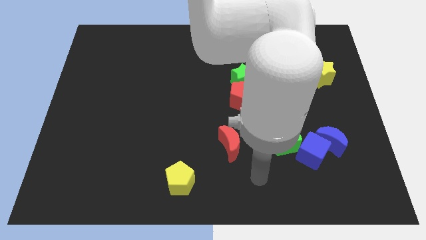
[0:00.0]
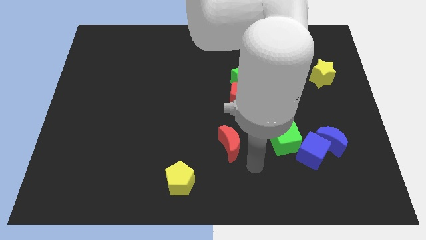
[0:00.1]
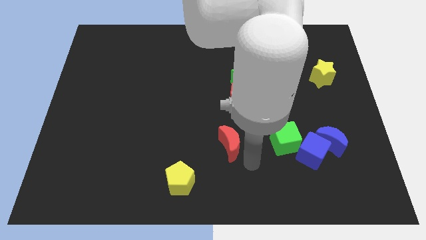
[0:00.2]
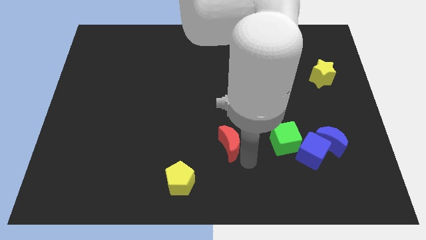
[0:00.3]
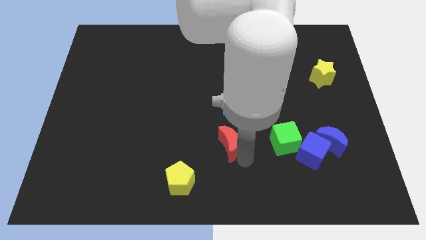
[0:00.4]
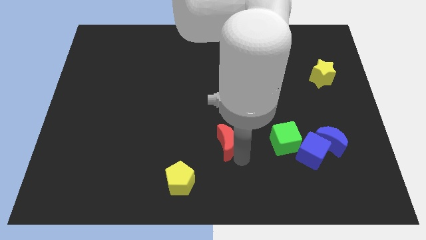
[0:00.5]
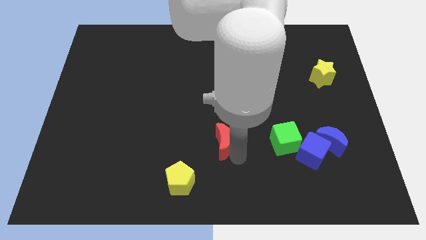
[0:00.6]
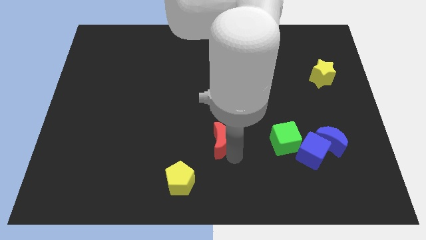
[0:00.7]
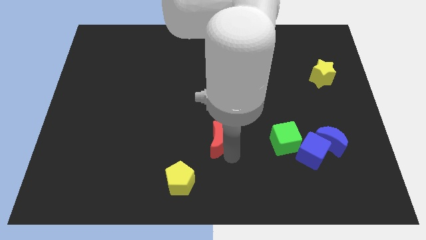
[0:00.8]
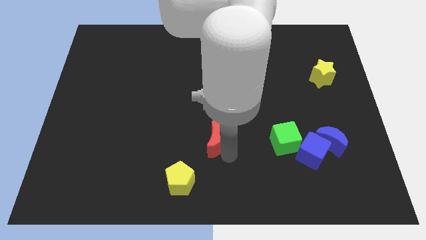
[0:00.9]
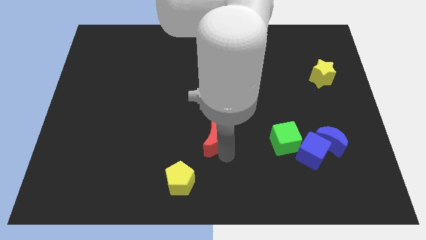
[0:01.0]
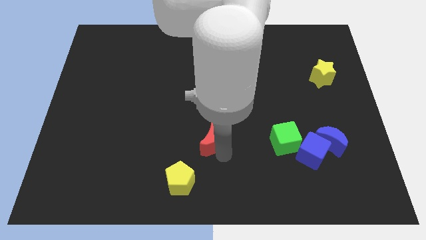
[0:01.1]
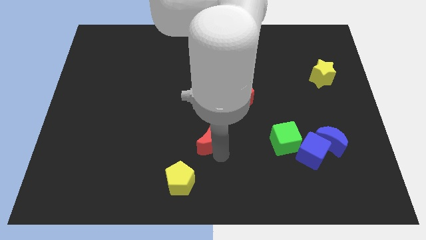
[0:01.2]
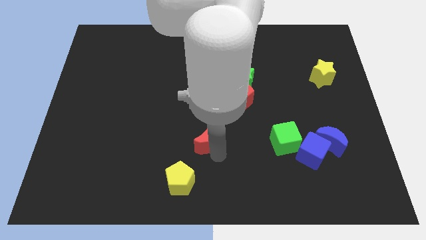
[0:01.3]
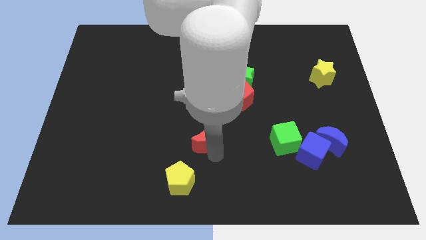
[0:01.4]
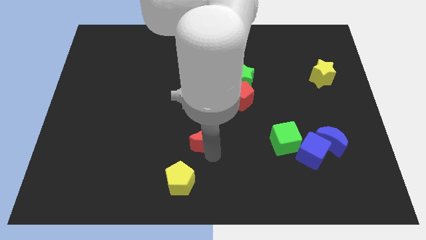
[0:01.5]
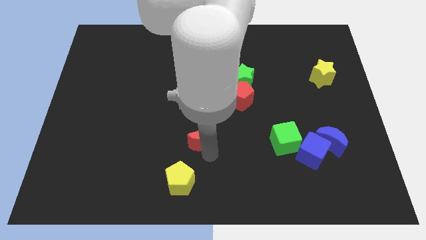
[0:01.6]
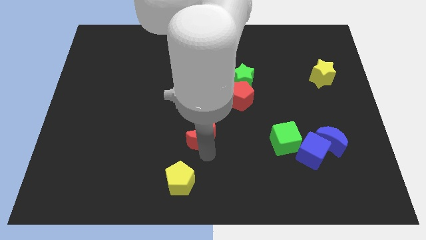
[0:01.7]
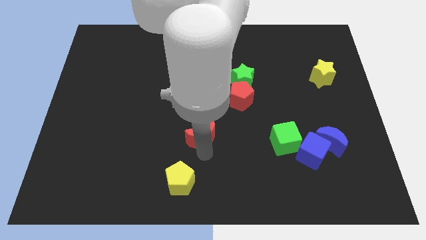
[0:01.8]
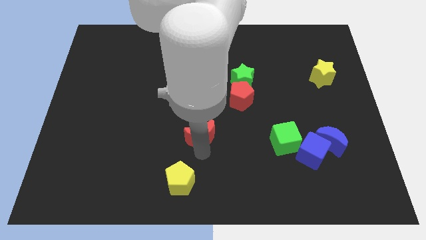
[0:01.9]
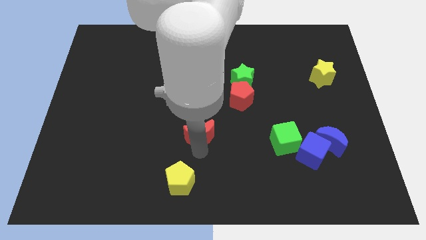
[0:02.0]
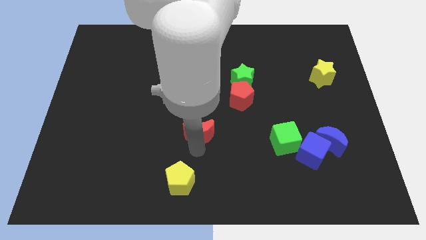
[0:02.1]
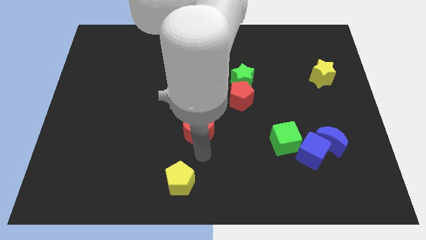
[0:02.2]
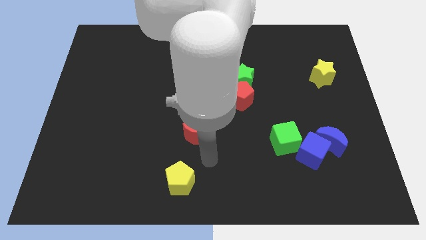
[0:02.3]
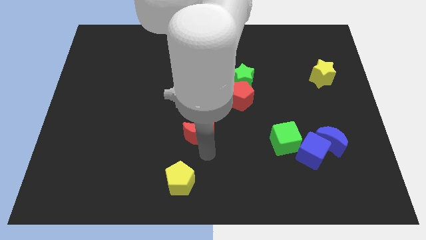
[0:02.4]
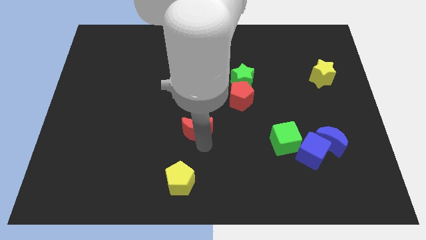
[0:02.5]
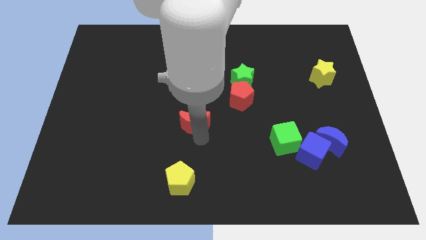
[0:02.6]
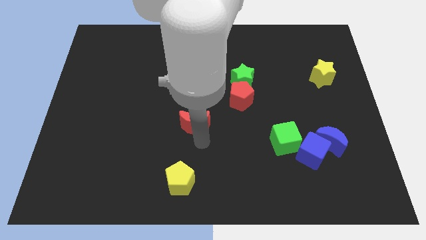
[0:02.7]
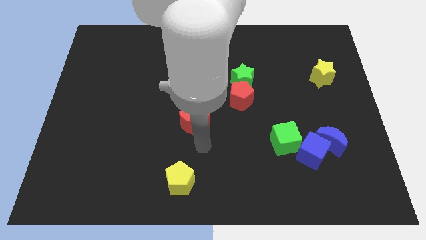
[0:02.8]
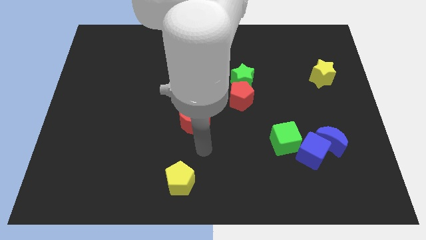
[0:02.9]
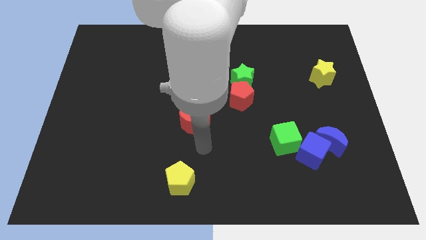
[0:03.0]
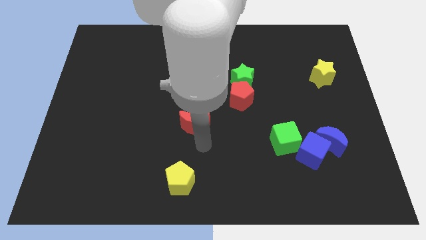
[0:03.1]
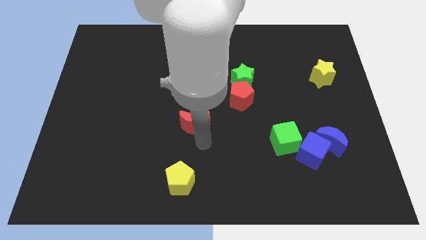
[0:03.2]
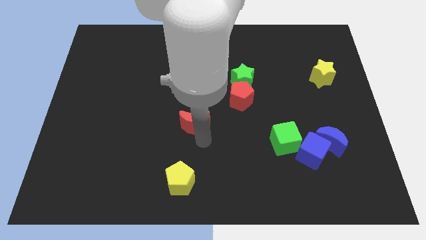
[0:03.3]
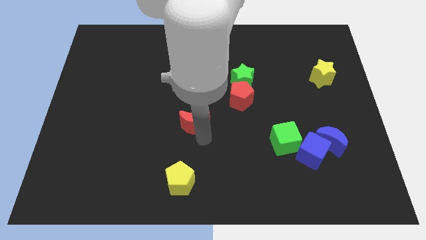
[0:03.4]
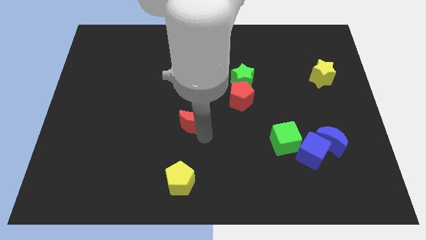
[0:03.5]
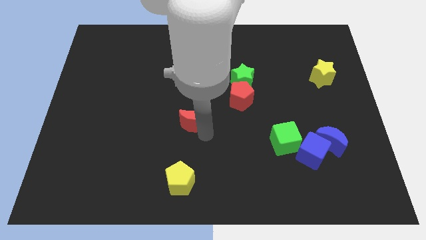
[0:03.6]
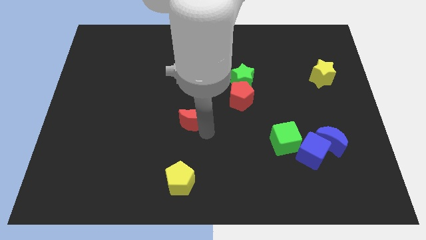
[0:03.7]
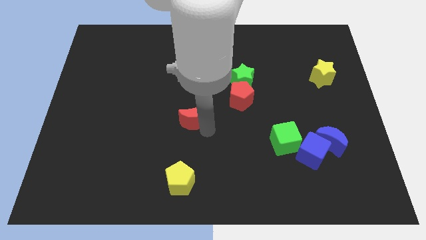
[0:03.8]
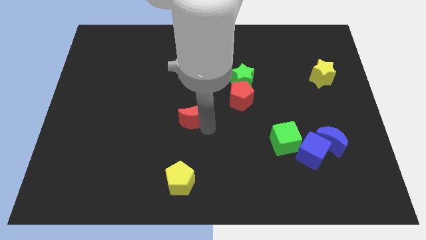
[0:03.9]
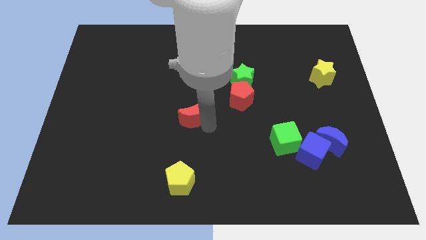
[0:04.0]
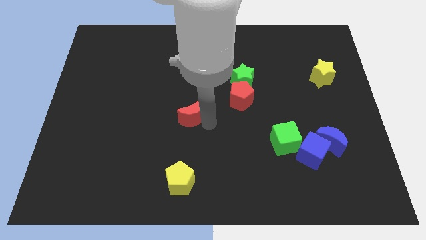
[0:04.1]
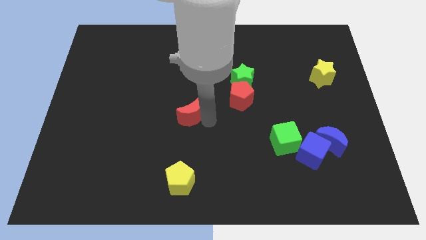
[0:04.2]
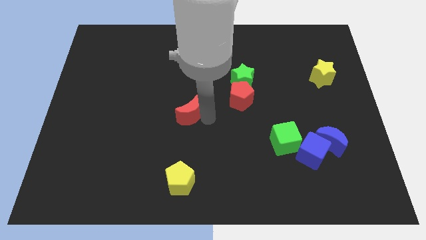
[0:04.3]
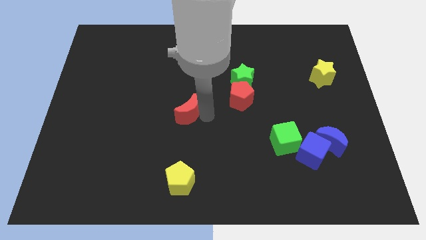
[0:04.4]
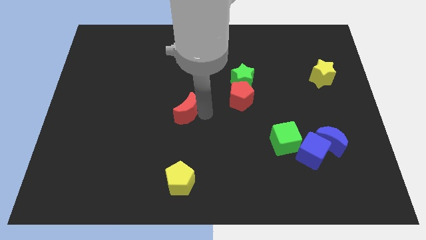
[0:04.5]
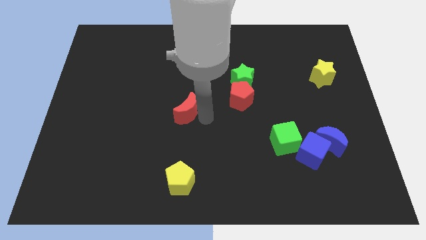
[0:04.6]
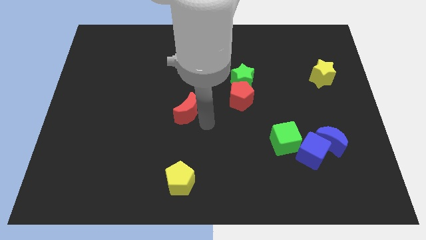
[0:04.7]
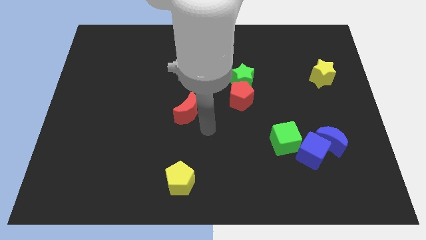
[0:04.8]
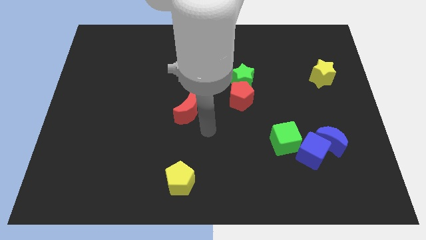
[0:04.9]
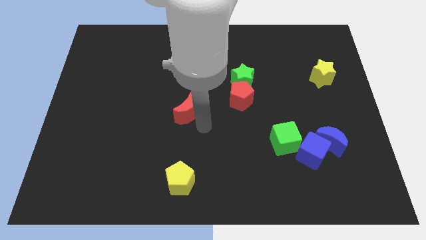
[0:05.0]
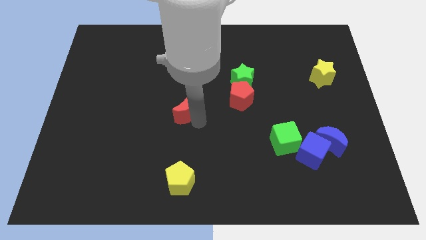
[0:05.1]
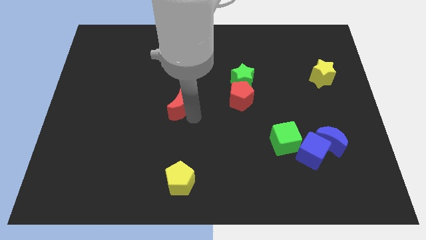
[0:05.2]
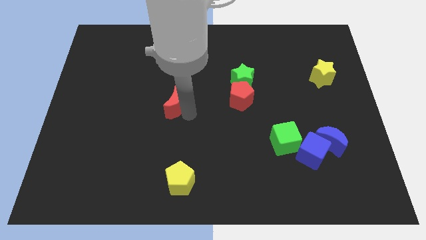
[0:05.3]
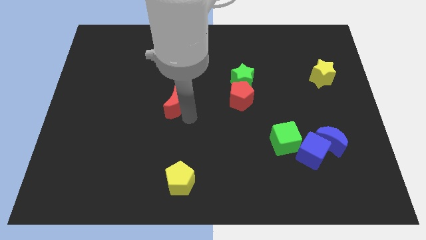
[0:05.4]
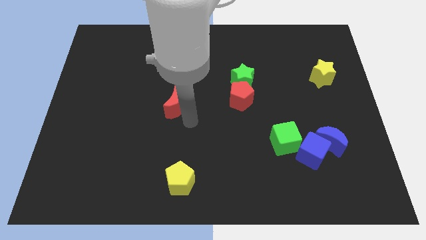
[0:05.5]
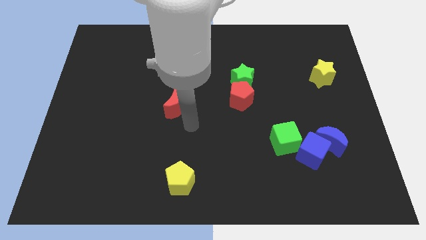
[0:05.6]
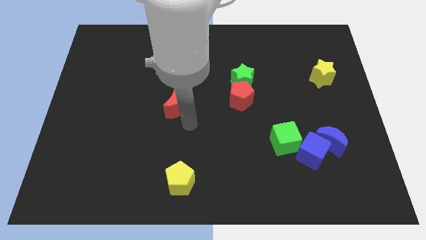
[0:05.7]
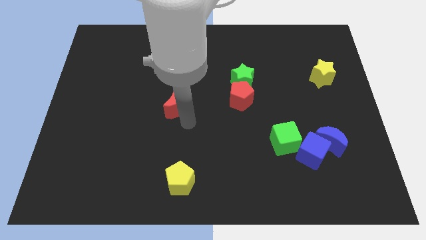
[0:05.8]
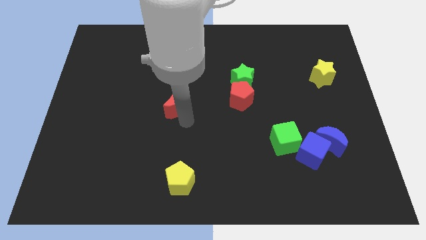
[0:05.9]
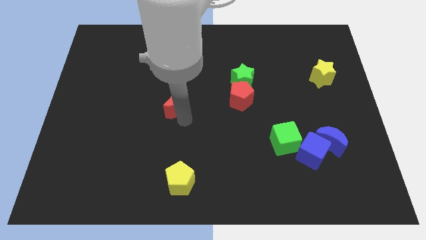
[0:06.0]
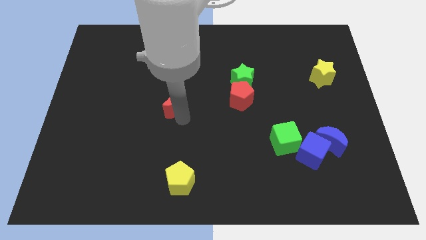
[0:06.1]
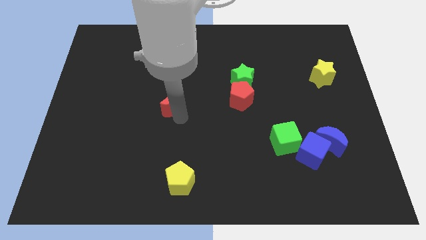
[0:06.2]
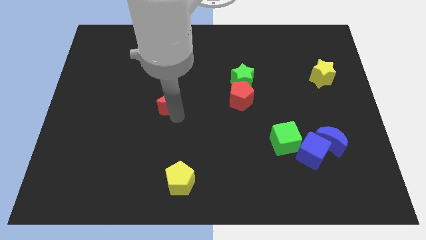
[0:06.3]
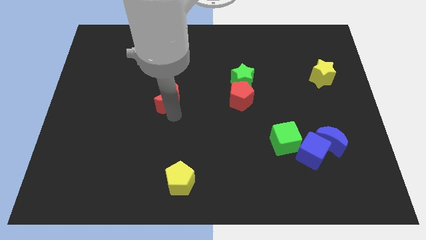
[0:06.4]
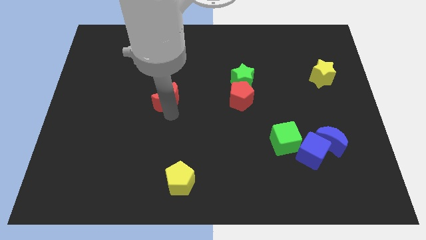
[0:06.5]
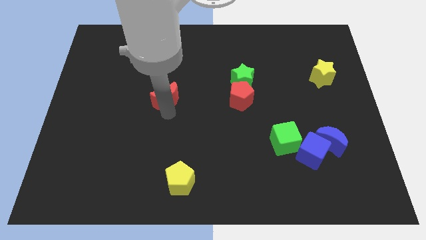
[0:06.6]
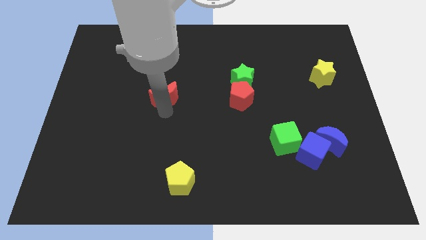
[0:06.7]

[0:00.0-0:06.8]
move the red moon up and left diagonally

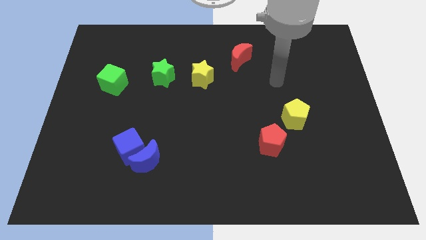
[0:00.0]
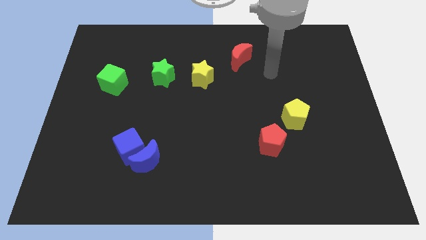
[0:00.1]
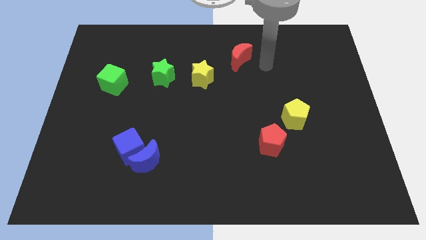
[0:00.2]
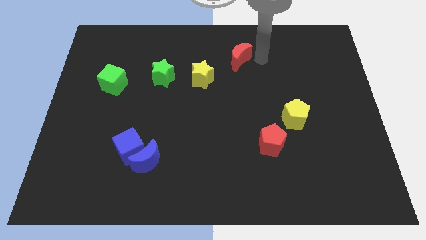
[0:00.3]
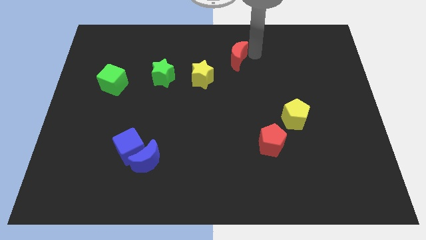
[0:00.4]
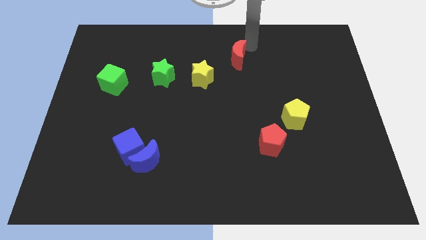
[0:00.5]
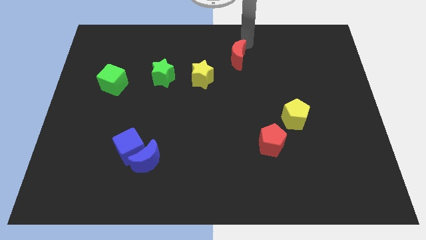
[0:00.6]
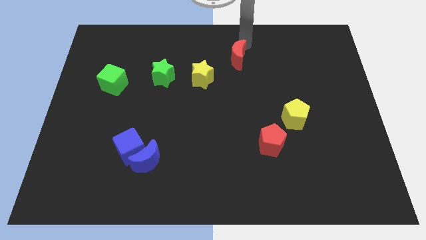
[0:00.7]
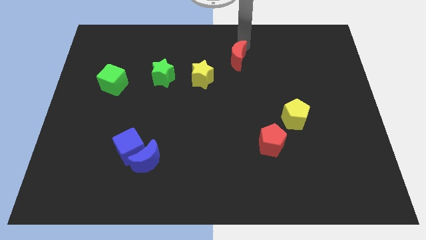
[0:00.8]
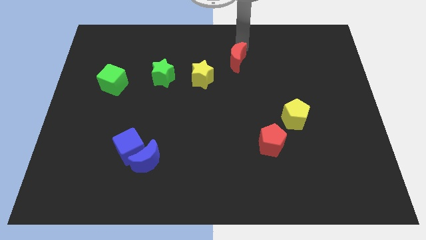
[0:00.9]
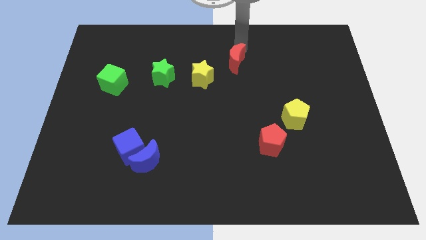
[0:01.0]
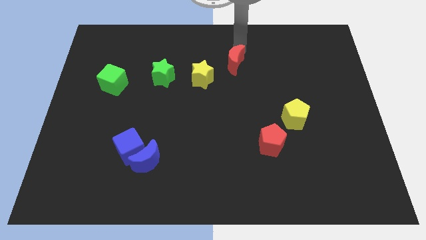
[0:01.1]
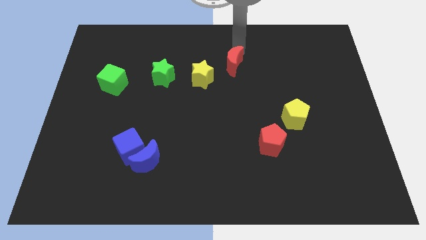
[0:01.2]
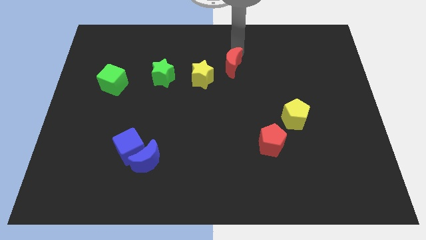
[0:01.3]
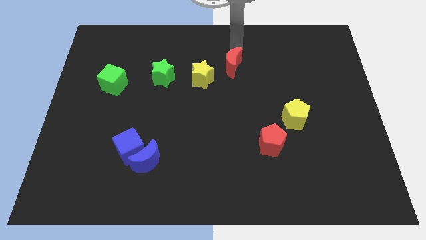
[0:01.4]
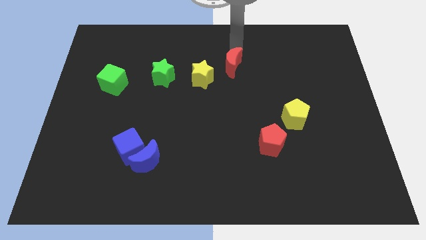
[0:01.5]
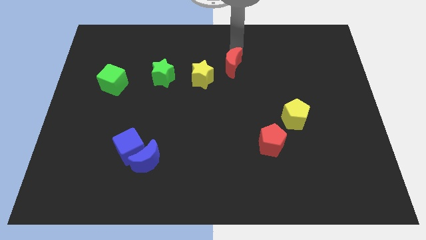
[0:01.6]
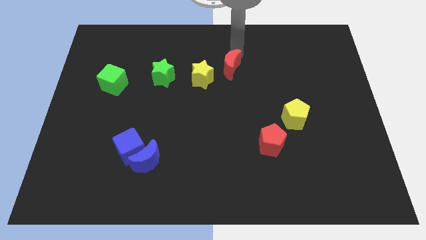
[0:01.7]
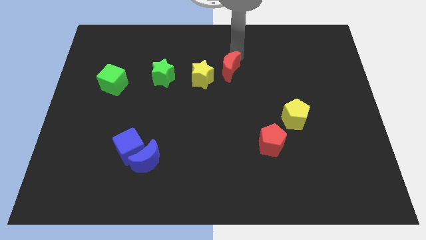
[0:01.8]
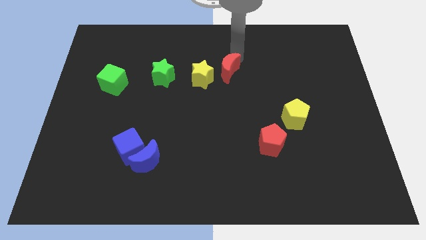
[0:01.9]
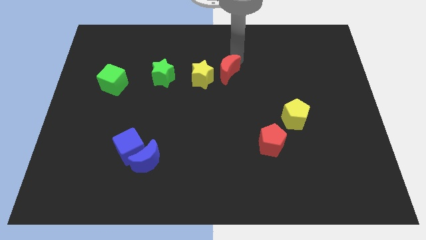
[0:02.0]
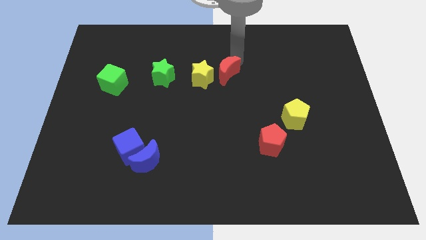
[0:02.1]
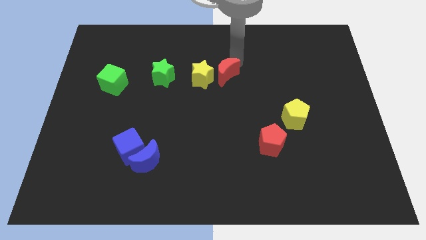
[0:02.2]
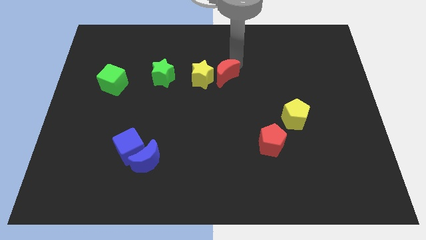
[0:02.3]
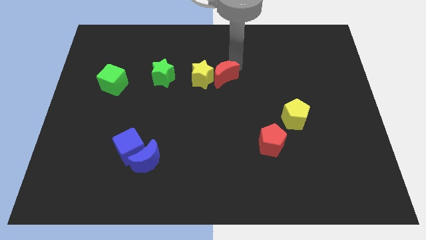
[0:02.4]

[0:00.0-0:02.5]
slide the red moon a bit down and left diagonally
